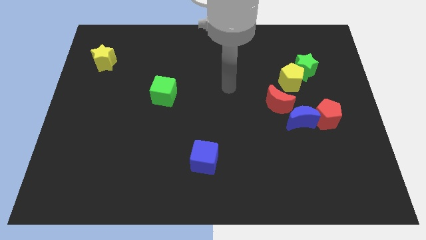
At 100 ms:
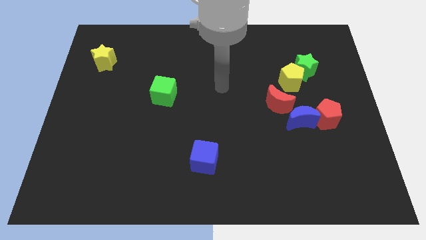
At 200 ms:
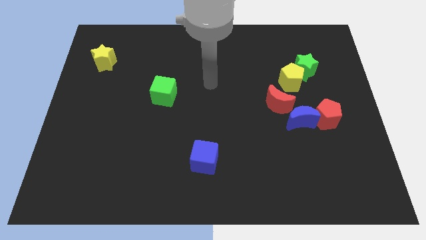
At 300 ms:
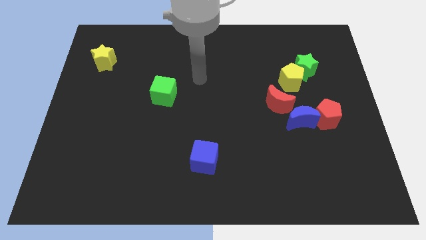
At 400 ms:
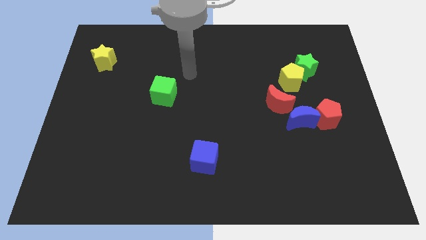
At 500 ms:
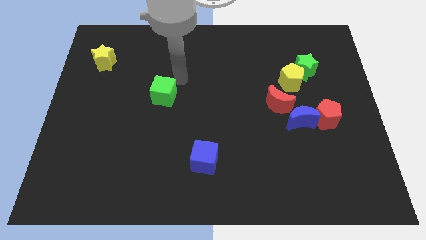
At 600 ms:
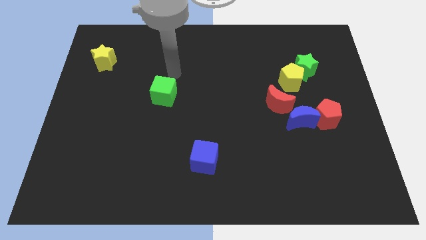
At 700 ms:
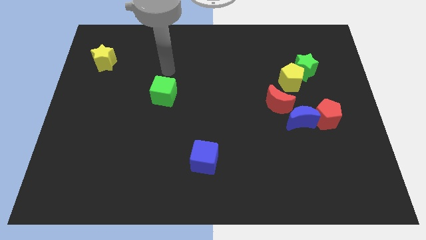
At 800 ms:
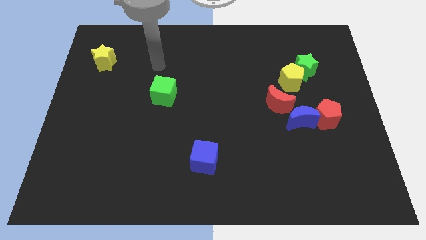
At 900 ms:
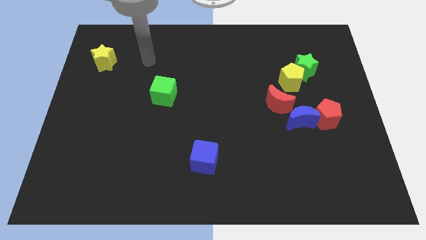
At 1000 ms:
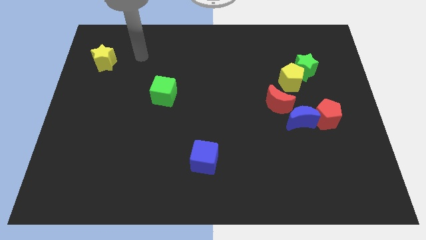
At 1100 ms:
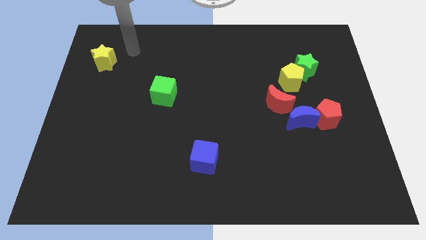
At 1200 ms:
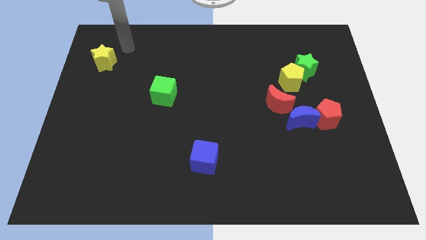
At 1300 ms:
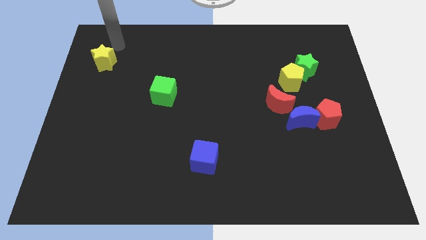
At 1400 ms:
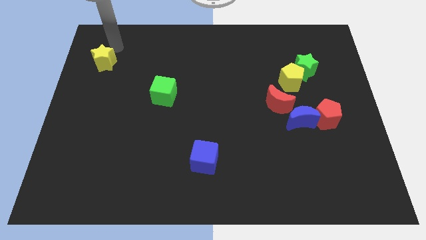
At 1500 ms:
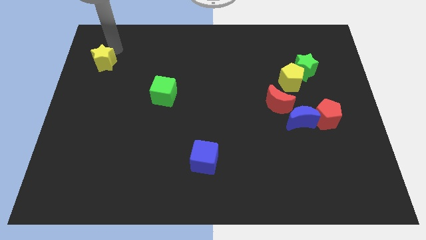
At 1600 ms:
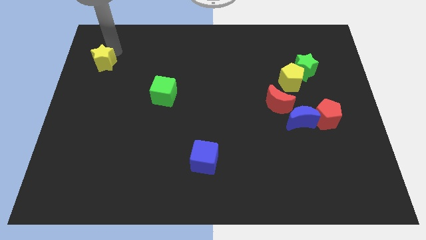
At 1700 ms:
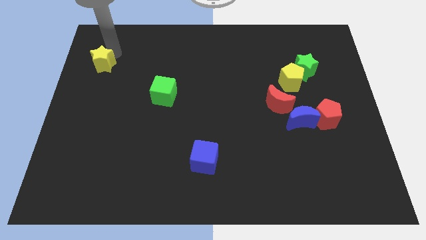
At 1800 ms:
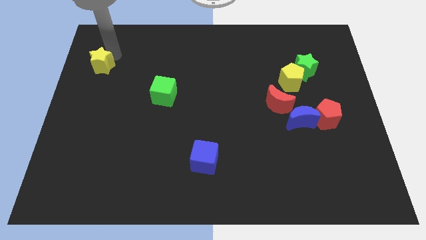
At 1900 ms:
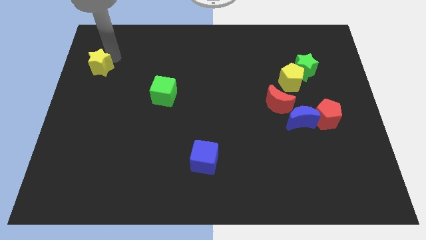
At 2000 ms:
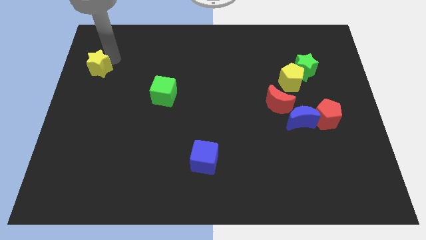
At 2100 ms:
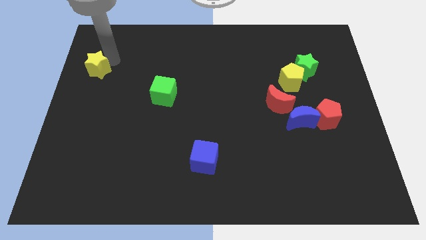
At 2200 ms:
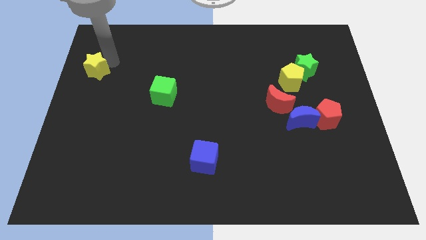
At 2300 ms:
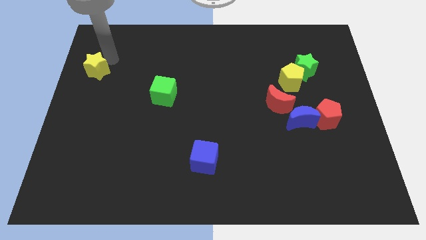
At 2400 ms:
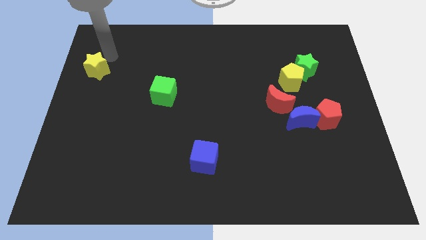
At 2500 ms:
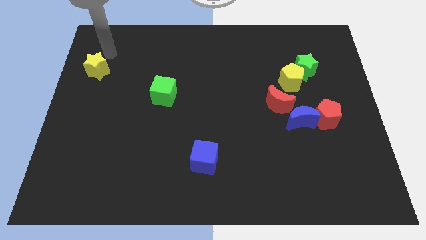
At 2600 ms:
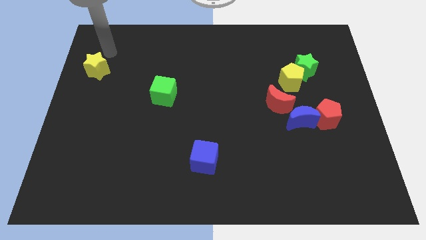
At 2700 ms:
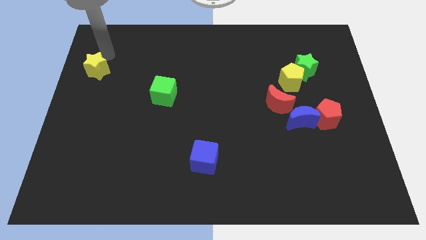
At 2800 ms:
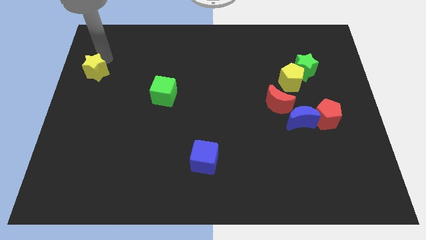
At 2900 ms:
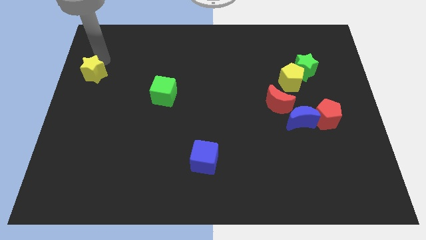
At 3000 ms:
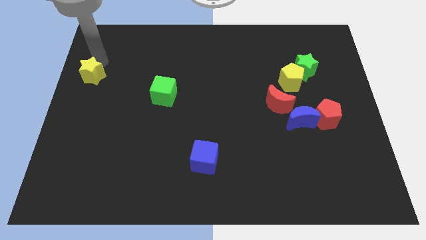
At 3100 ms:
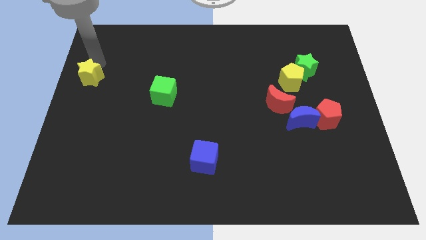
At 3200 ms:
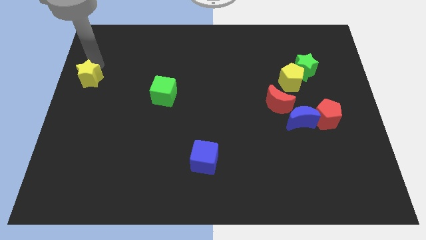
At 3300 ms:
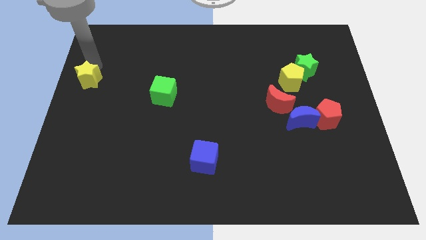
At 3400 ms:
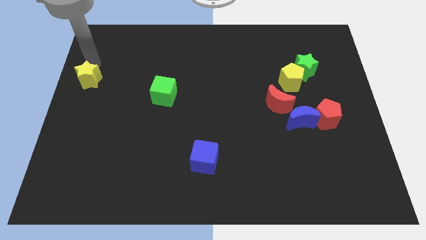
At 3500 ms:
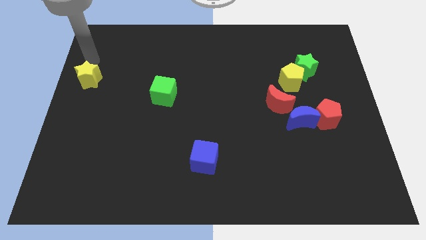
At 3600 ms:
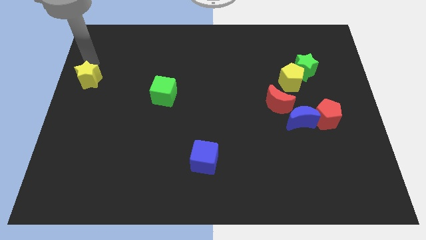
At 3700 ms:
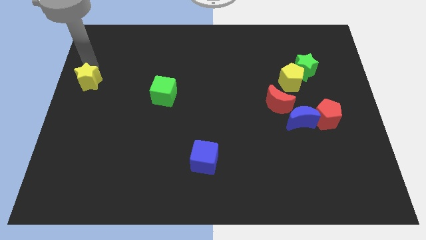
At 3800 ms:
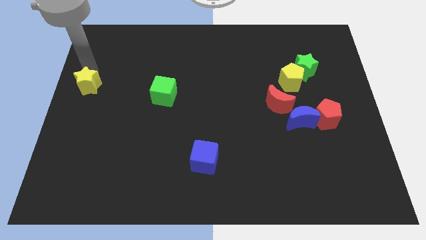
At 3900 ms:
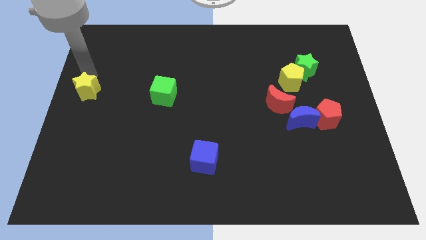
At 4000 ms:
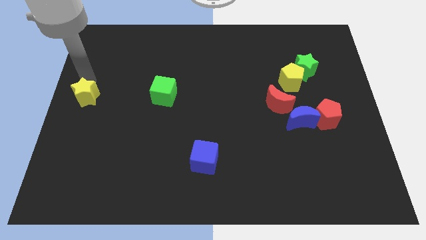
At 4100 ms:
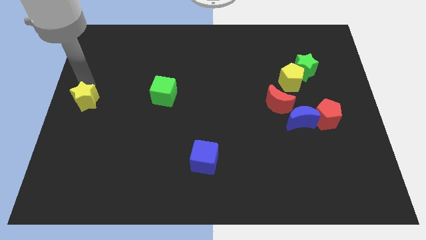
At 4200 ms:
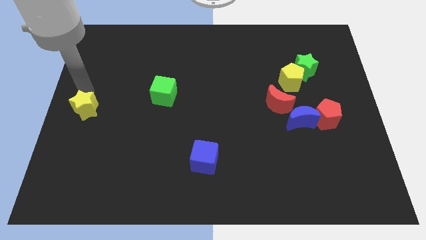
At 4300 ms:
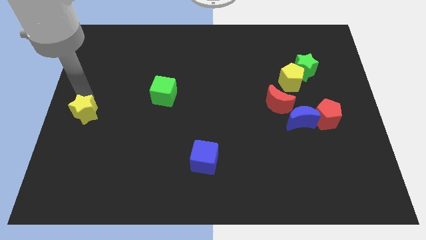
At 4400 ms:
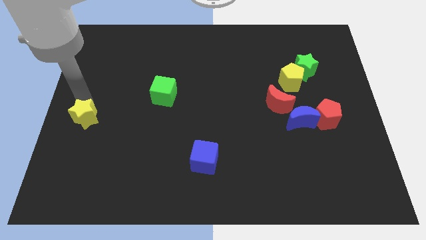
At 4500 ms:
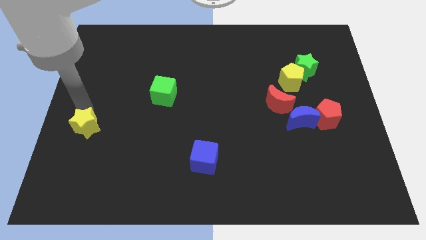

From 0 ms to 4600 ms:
move the yellow star down

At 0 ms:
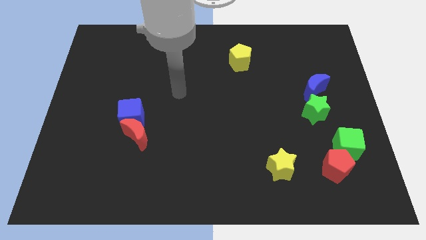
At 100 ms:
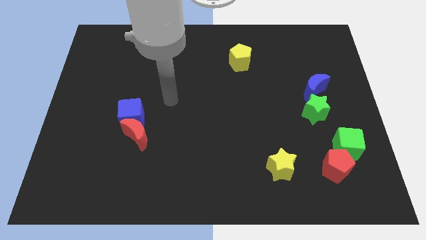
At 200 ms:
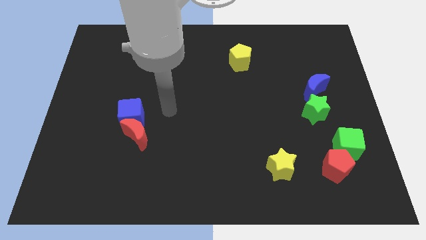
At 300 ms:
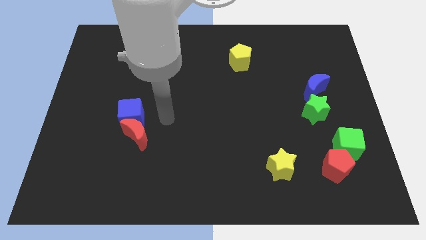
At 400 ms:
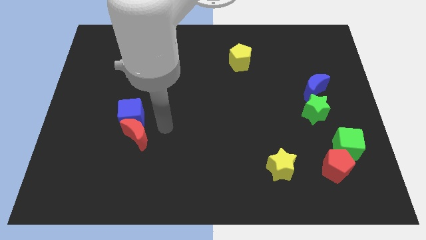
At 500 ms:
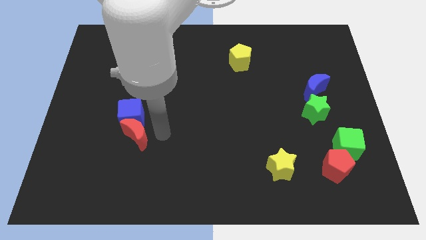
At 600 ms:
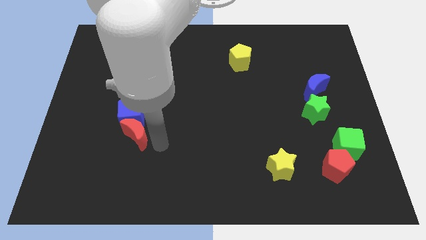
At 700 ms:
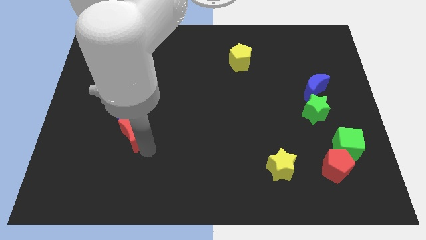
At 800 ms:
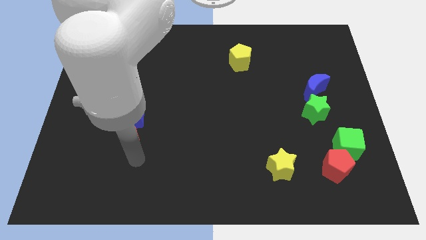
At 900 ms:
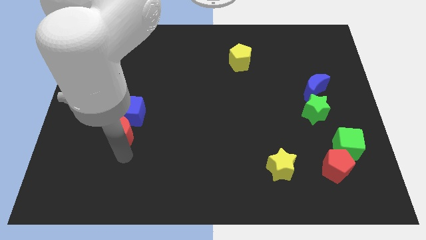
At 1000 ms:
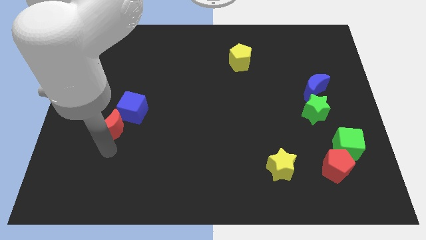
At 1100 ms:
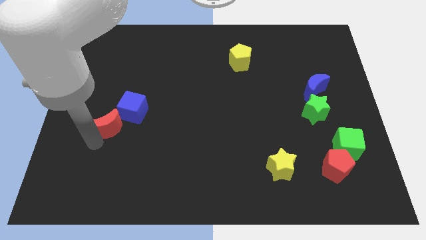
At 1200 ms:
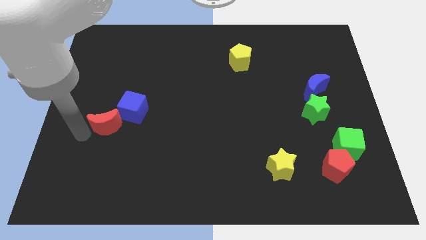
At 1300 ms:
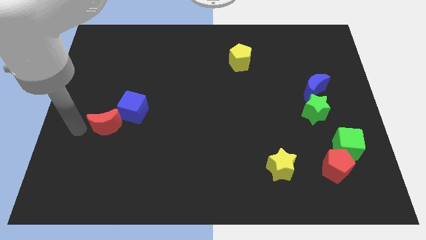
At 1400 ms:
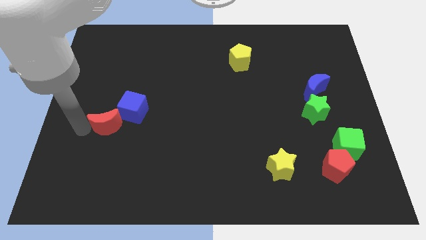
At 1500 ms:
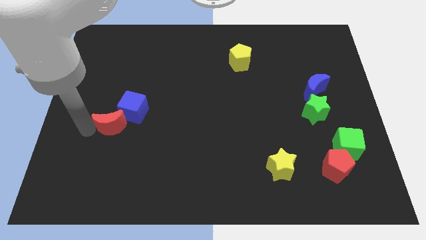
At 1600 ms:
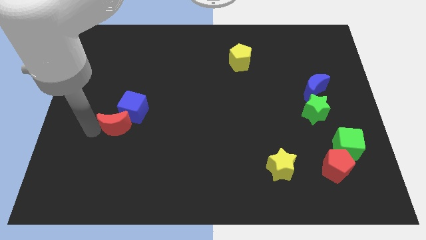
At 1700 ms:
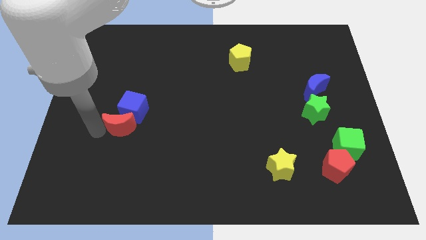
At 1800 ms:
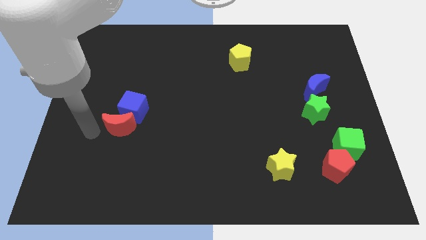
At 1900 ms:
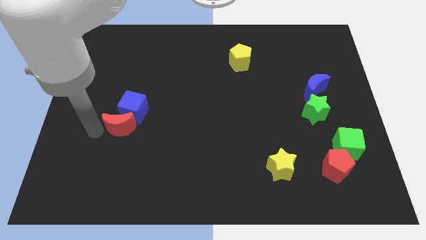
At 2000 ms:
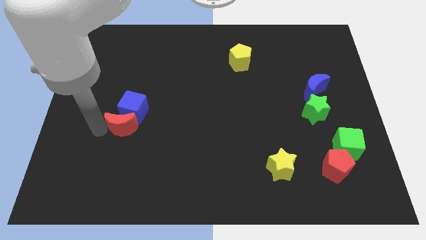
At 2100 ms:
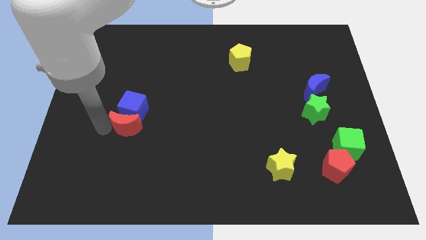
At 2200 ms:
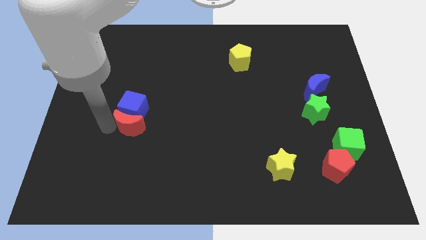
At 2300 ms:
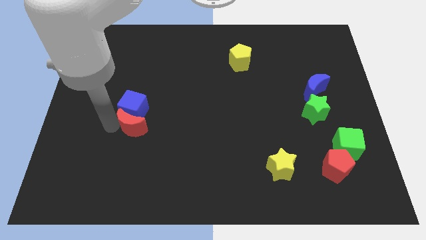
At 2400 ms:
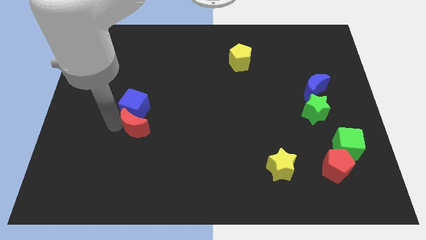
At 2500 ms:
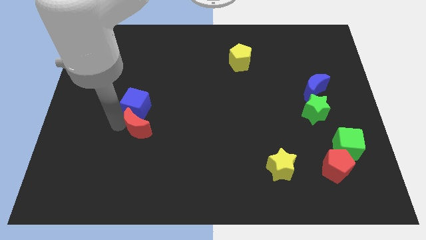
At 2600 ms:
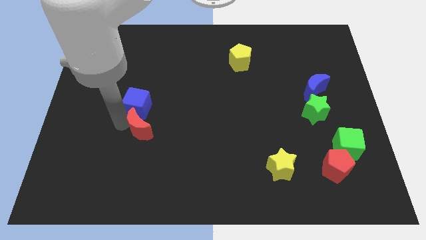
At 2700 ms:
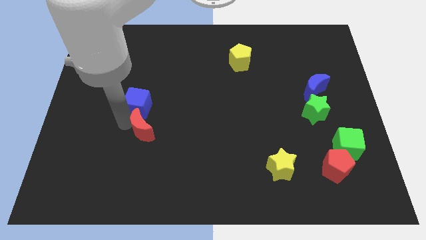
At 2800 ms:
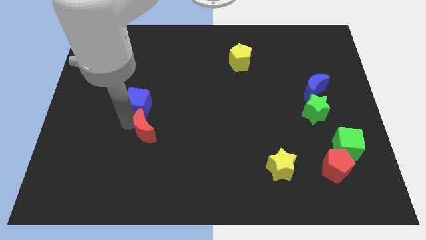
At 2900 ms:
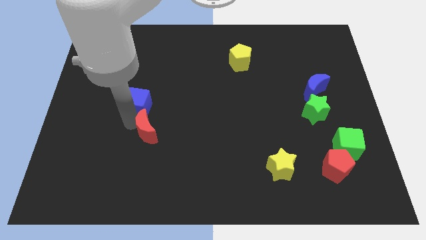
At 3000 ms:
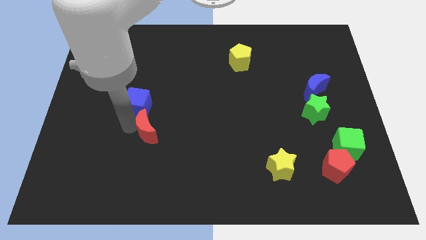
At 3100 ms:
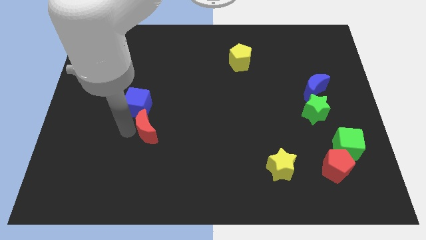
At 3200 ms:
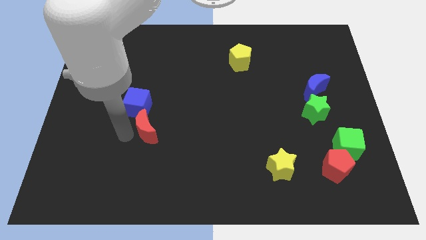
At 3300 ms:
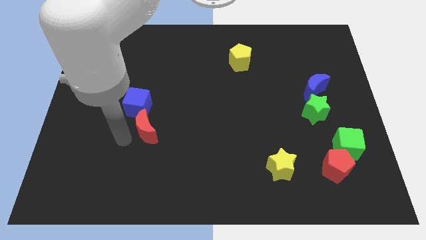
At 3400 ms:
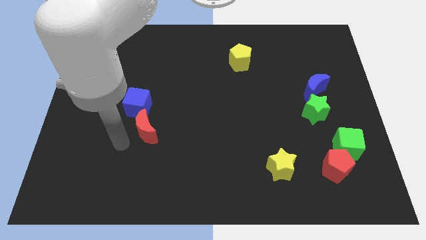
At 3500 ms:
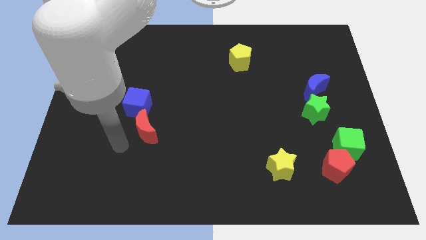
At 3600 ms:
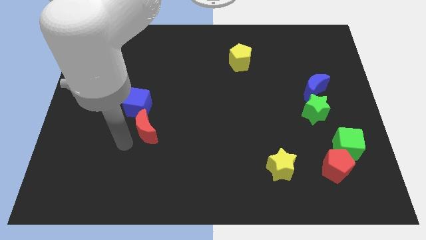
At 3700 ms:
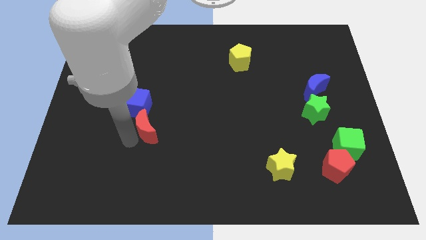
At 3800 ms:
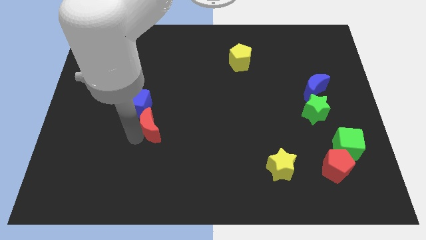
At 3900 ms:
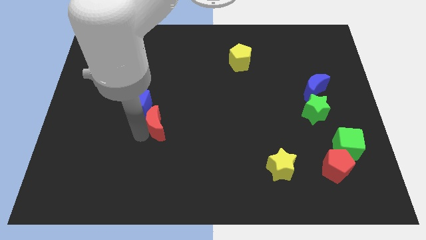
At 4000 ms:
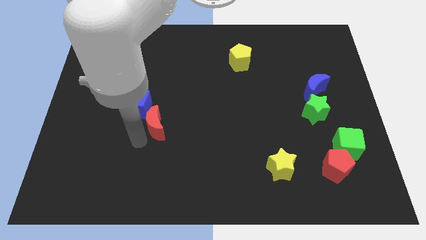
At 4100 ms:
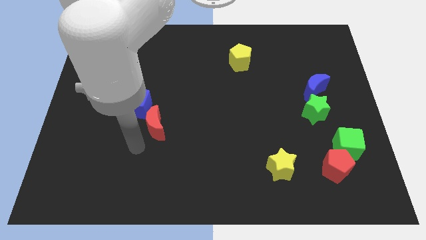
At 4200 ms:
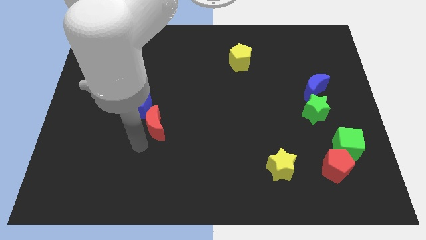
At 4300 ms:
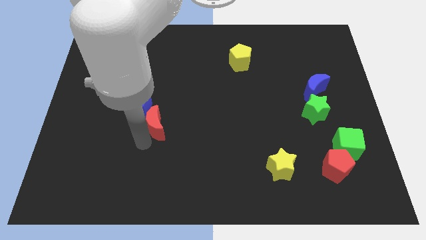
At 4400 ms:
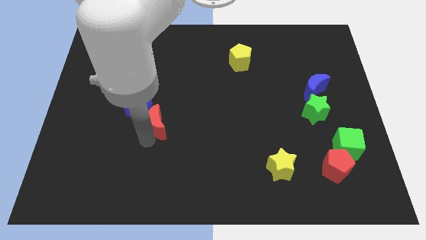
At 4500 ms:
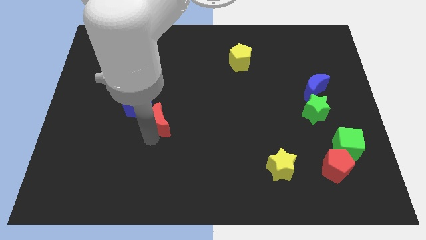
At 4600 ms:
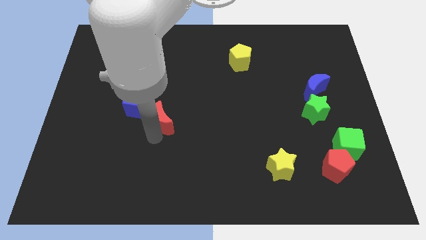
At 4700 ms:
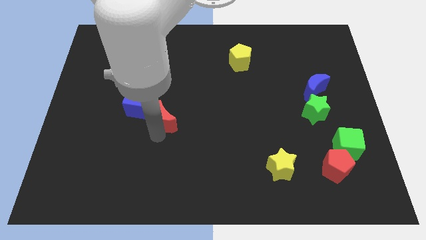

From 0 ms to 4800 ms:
slide the red moon a bit diagonally upwards and right
